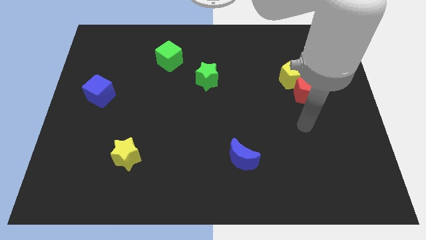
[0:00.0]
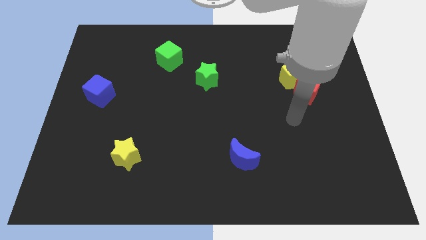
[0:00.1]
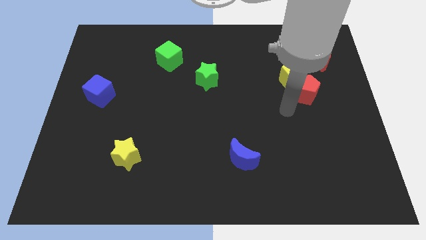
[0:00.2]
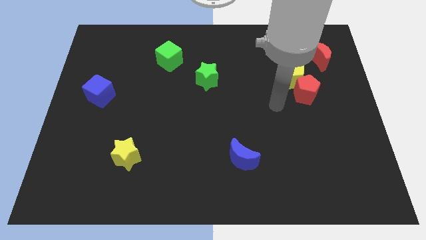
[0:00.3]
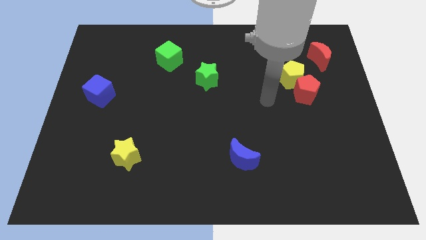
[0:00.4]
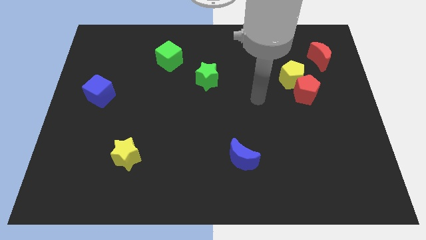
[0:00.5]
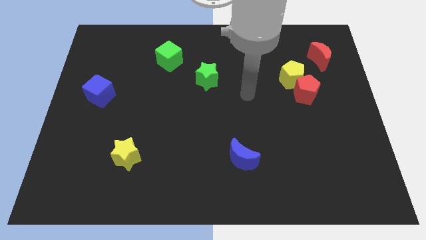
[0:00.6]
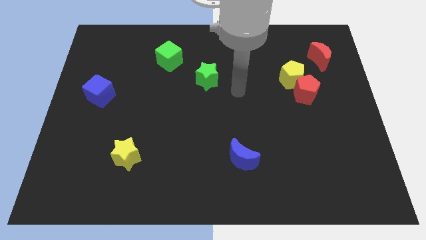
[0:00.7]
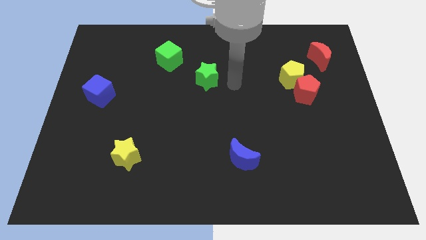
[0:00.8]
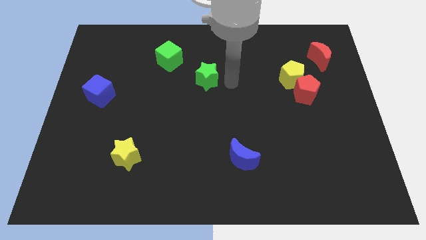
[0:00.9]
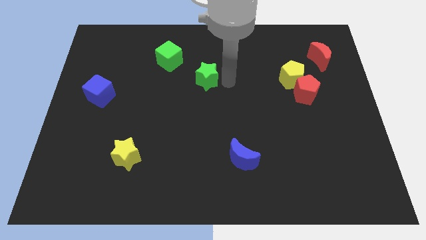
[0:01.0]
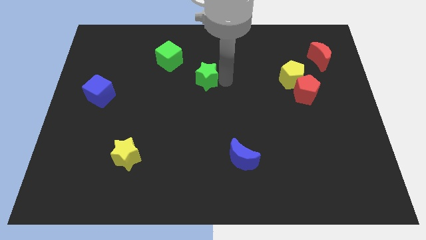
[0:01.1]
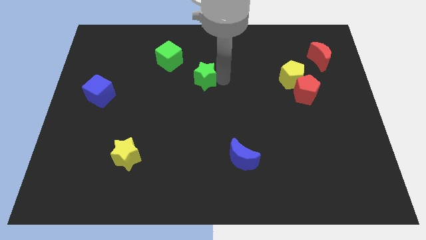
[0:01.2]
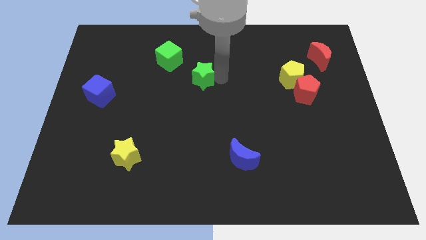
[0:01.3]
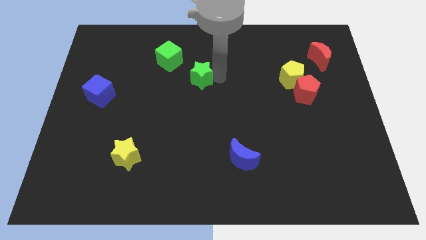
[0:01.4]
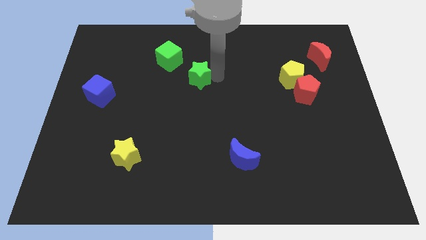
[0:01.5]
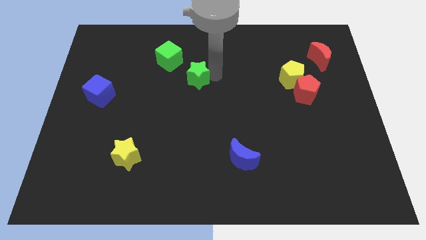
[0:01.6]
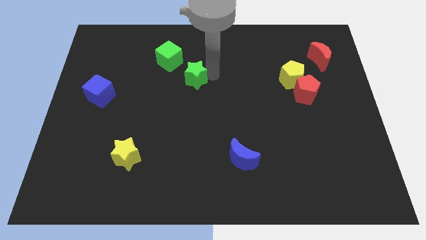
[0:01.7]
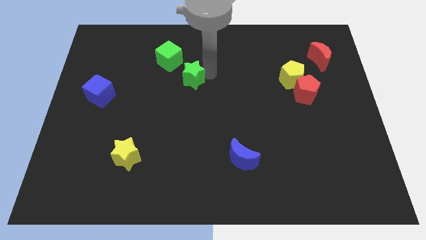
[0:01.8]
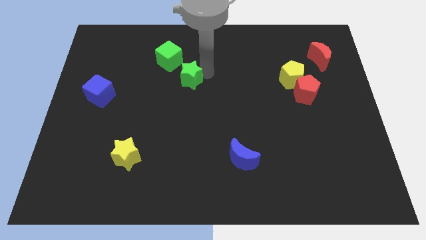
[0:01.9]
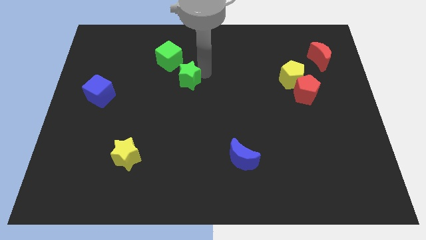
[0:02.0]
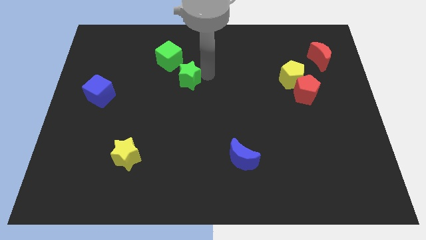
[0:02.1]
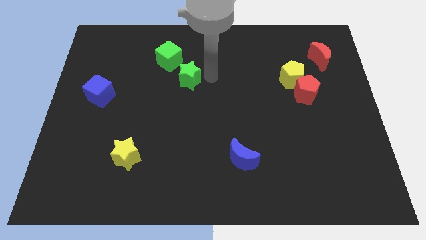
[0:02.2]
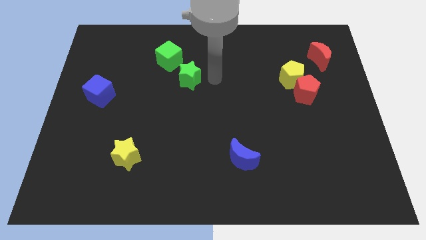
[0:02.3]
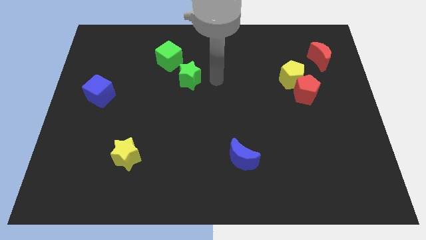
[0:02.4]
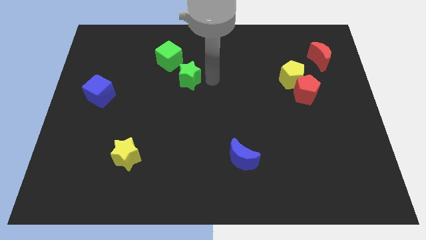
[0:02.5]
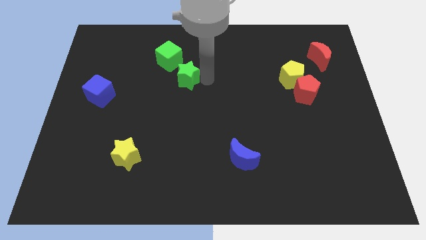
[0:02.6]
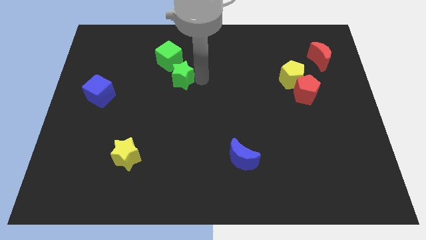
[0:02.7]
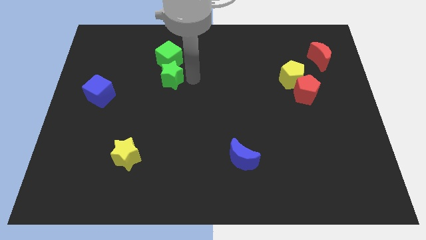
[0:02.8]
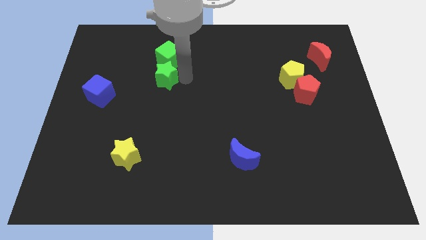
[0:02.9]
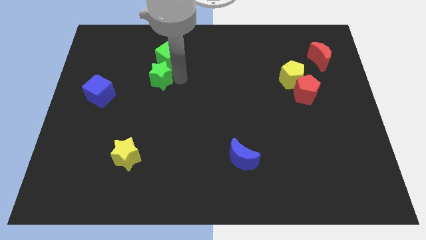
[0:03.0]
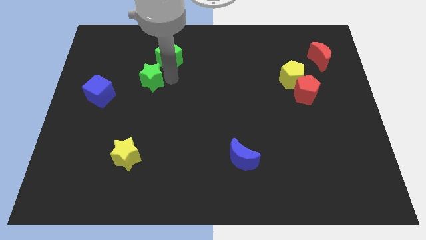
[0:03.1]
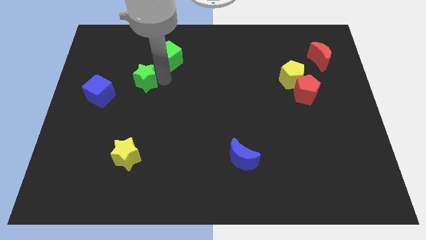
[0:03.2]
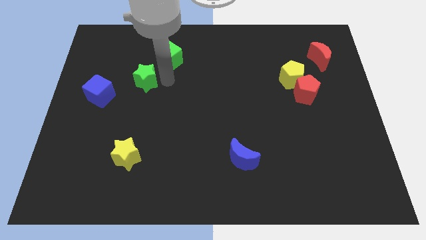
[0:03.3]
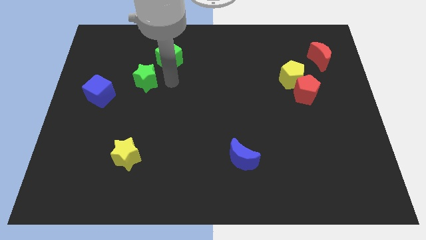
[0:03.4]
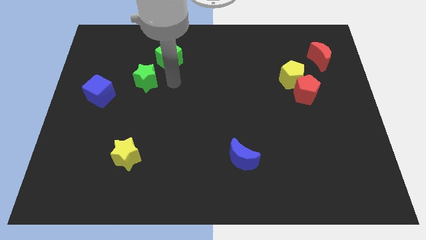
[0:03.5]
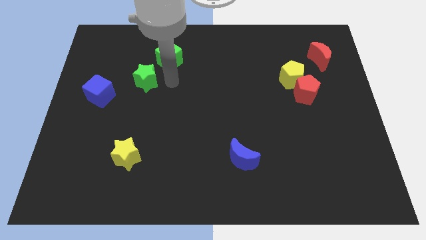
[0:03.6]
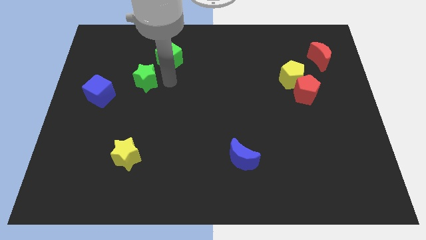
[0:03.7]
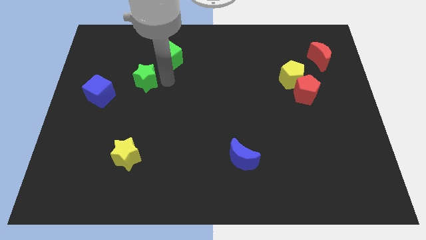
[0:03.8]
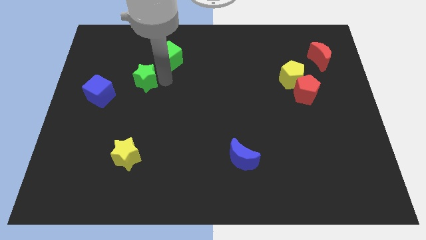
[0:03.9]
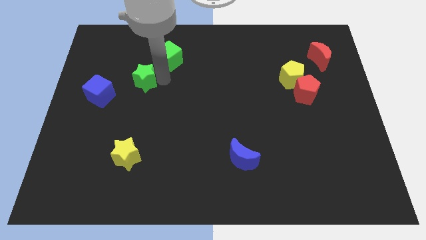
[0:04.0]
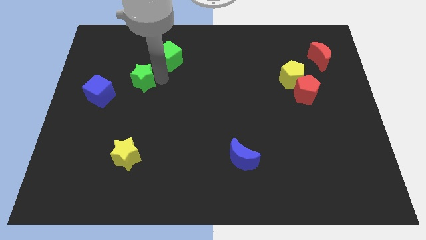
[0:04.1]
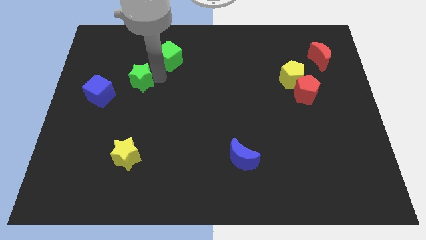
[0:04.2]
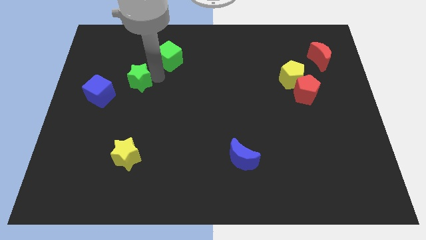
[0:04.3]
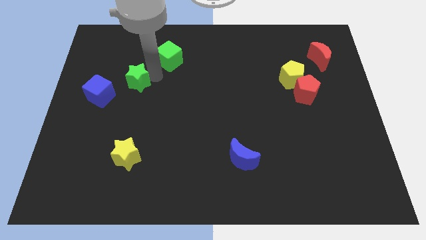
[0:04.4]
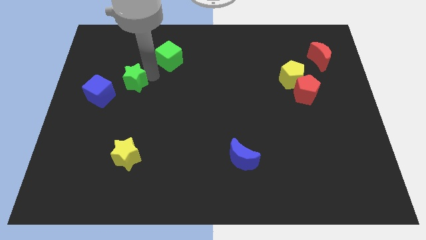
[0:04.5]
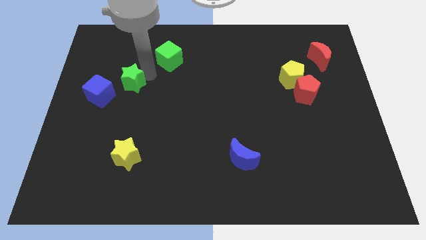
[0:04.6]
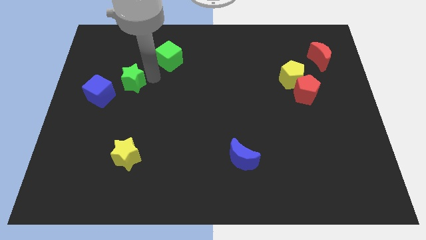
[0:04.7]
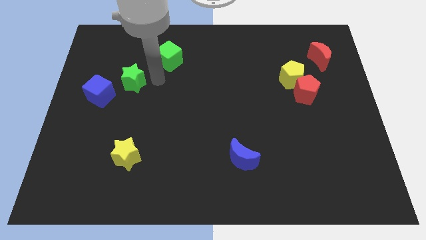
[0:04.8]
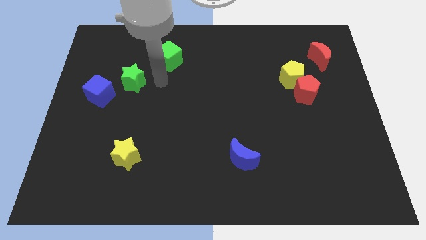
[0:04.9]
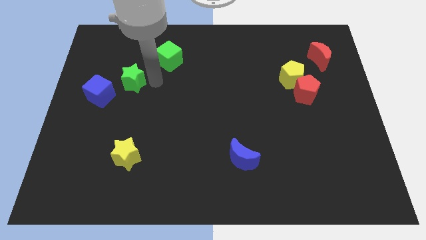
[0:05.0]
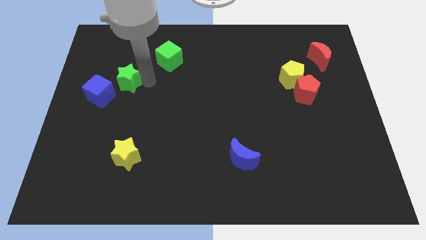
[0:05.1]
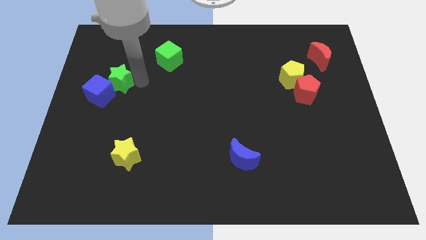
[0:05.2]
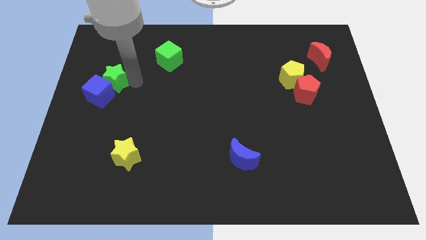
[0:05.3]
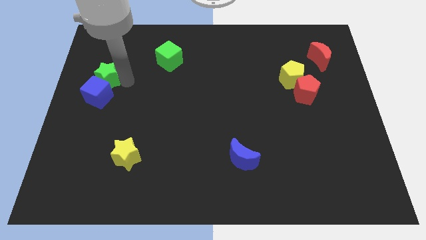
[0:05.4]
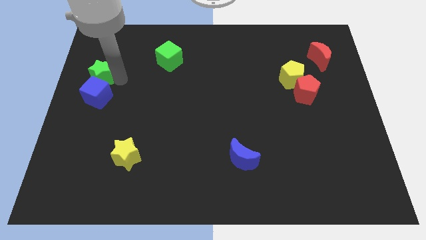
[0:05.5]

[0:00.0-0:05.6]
move the green star to the center left

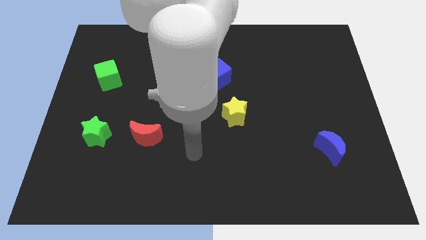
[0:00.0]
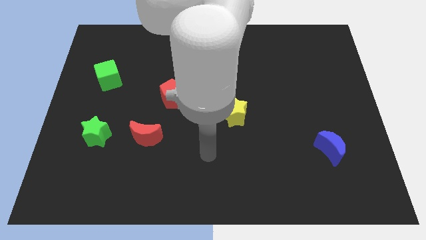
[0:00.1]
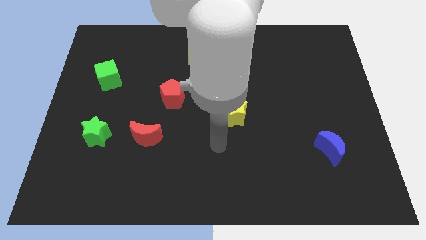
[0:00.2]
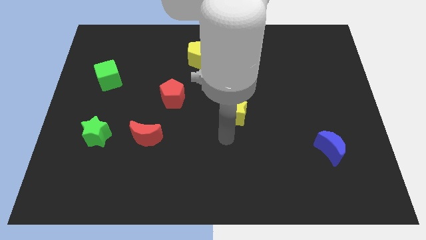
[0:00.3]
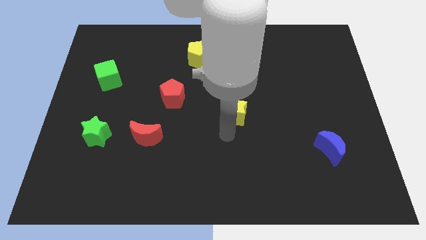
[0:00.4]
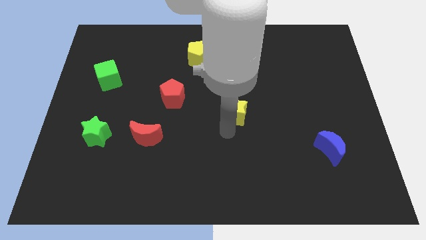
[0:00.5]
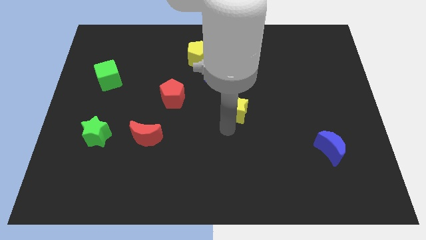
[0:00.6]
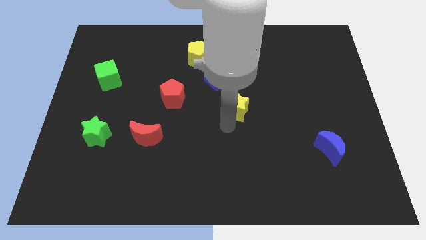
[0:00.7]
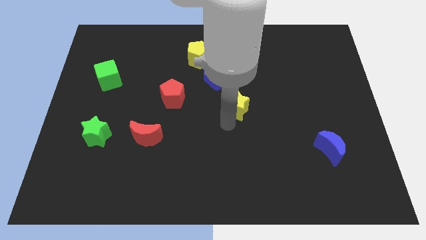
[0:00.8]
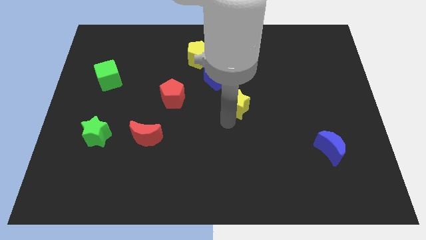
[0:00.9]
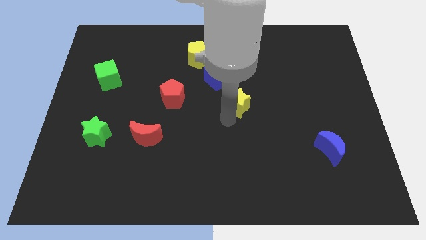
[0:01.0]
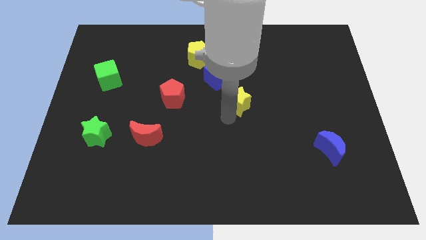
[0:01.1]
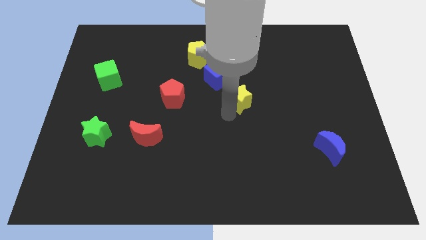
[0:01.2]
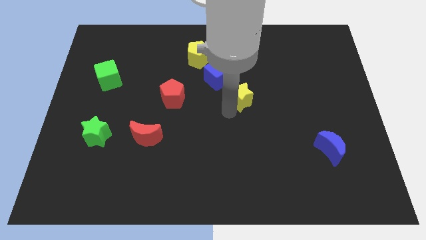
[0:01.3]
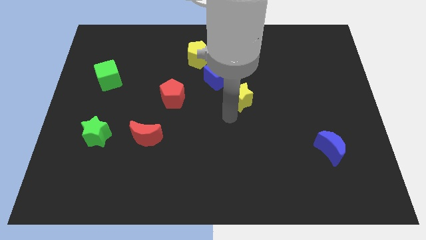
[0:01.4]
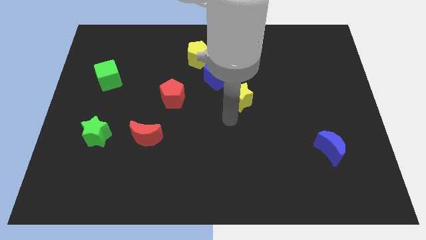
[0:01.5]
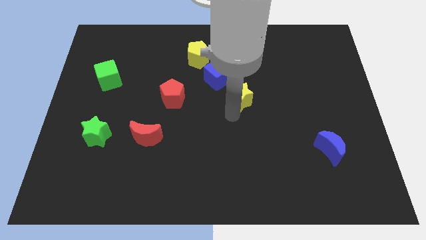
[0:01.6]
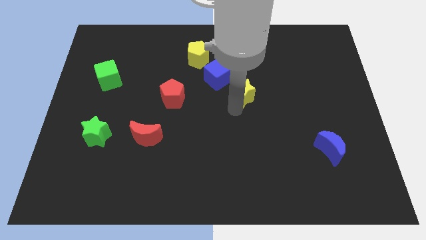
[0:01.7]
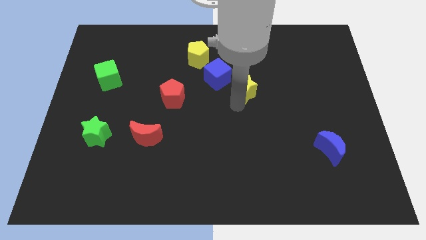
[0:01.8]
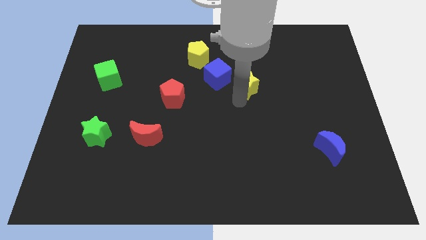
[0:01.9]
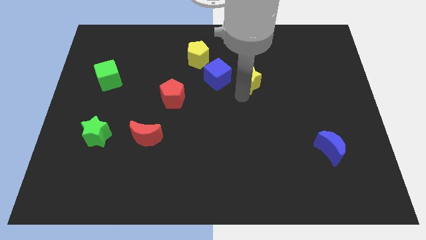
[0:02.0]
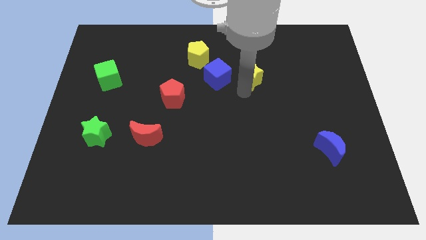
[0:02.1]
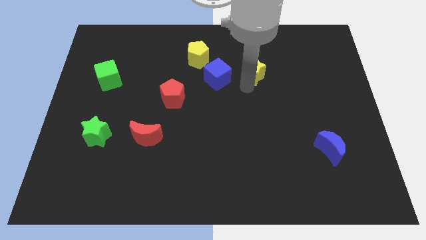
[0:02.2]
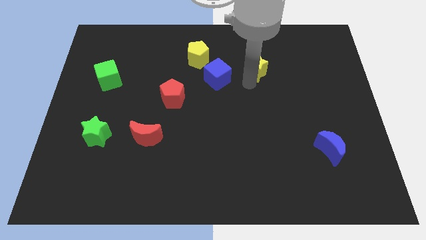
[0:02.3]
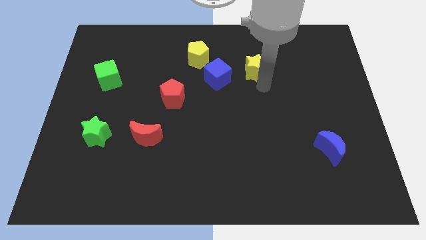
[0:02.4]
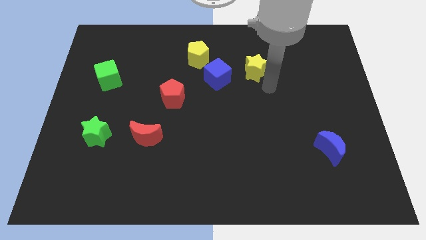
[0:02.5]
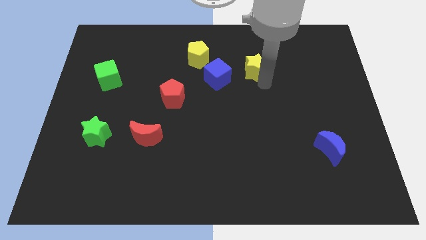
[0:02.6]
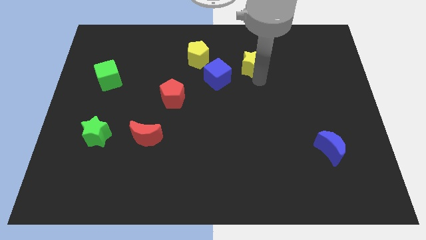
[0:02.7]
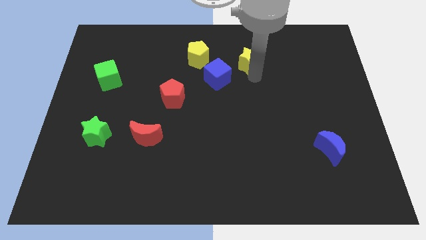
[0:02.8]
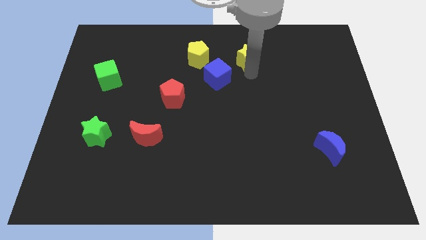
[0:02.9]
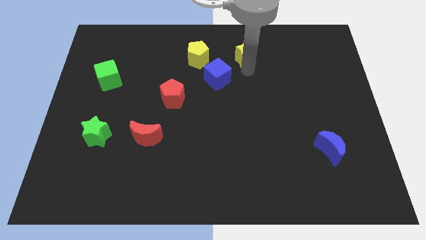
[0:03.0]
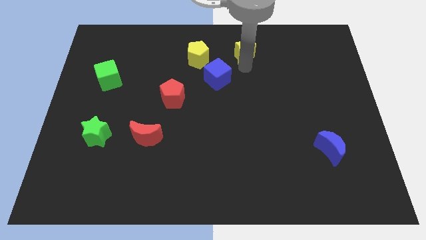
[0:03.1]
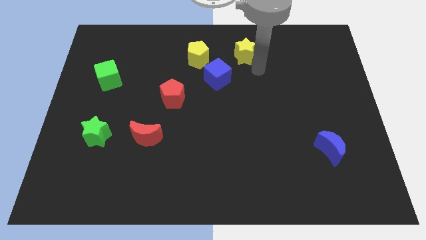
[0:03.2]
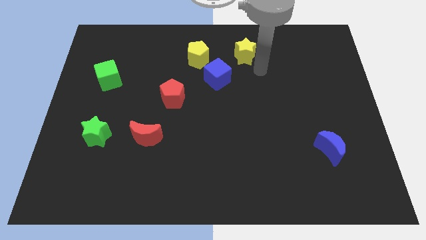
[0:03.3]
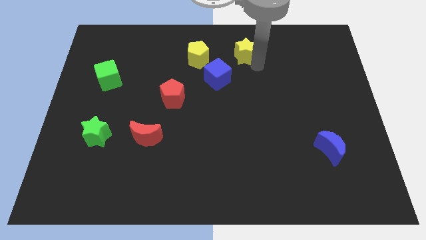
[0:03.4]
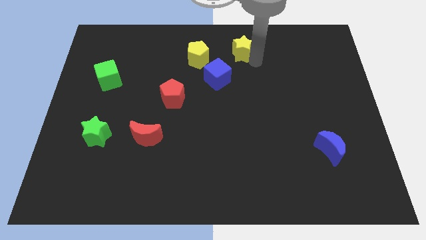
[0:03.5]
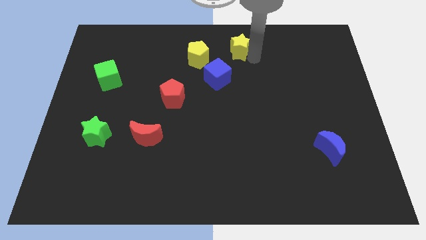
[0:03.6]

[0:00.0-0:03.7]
push the yellow star to the top
